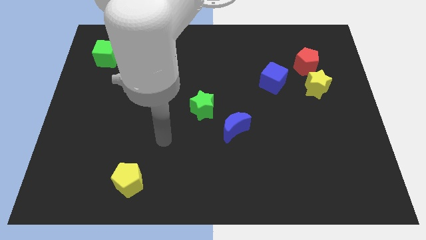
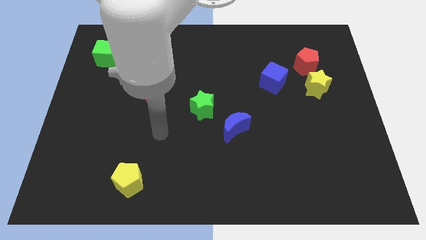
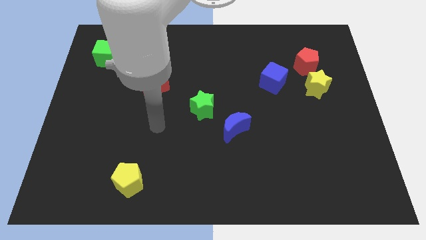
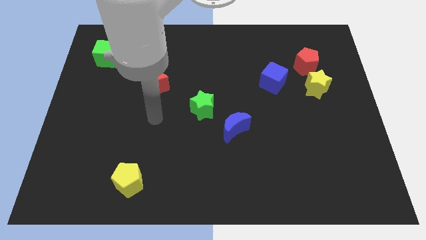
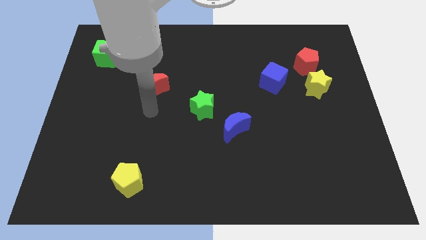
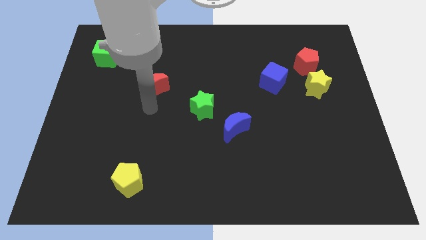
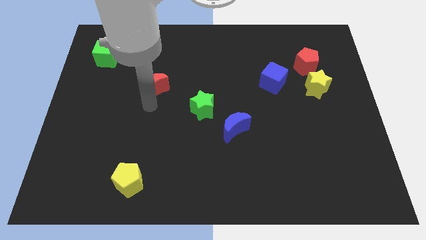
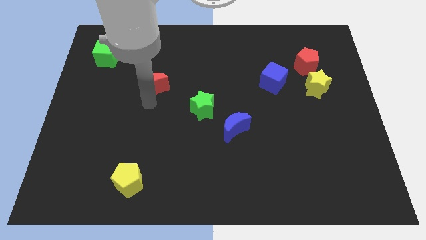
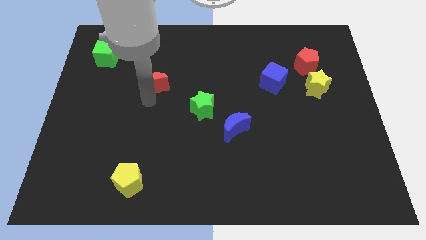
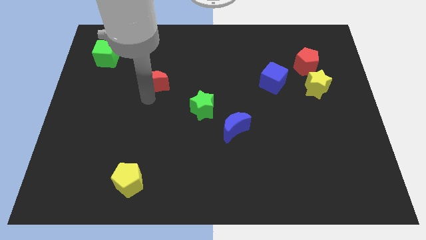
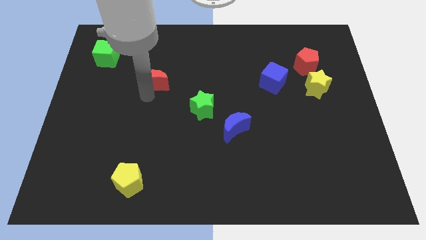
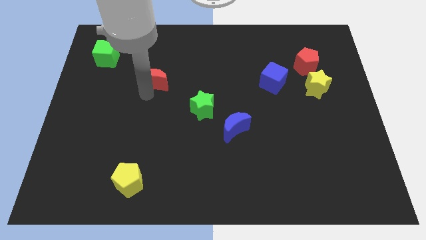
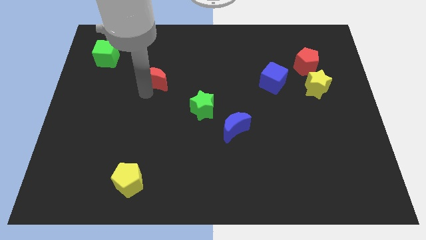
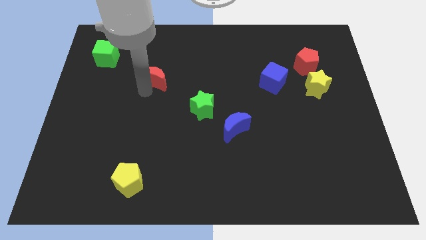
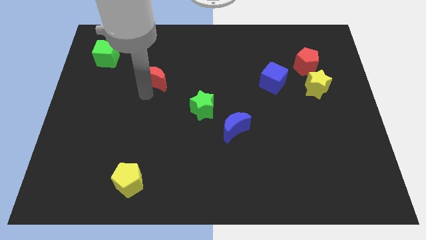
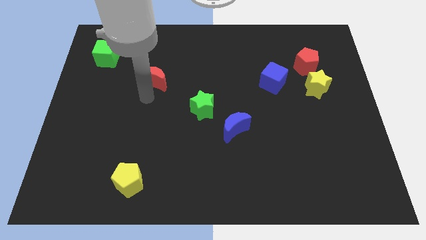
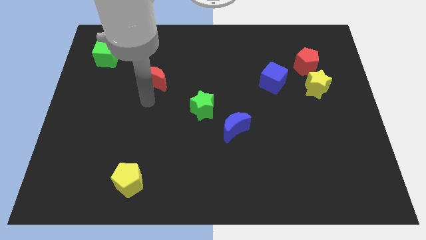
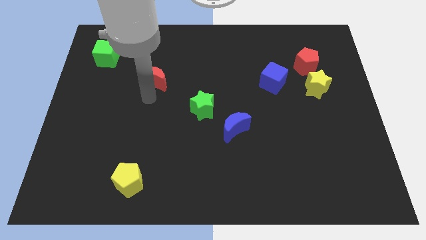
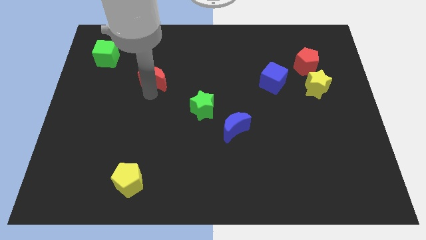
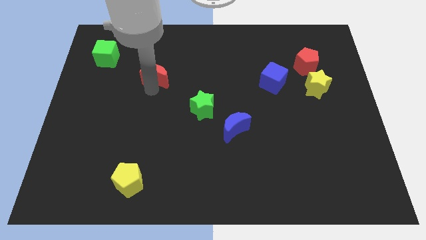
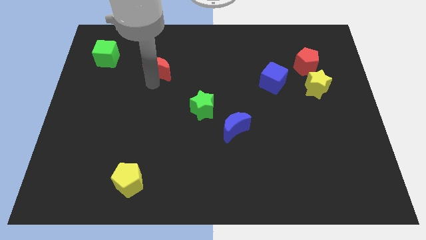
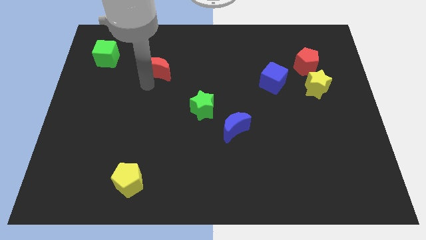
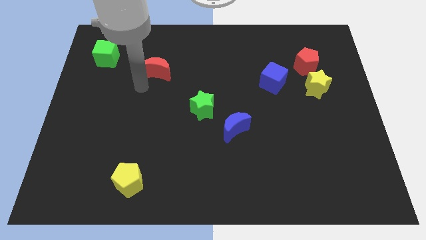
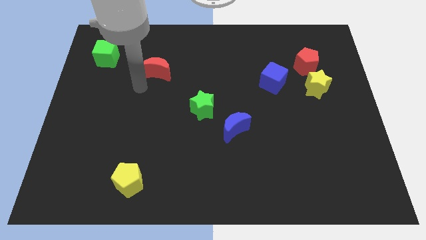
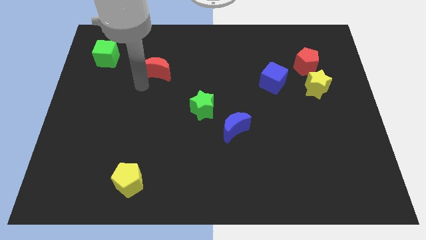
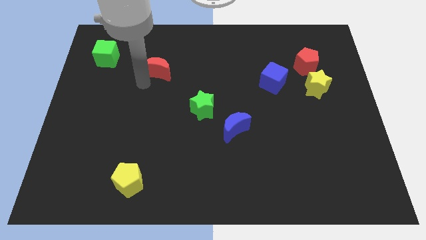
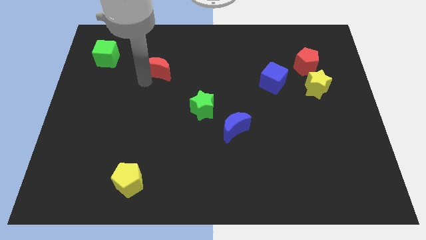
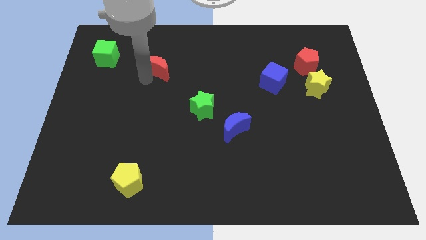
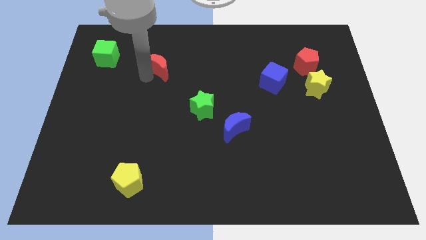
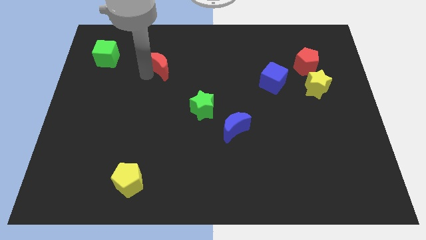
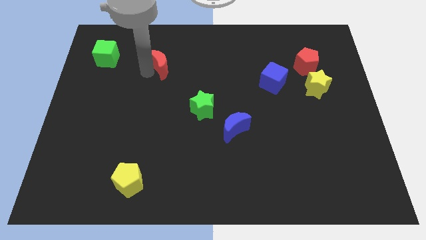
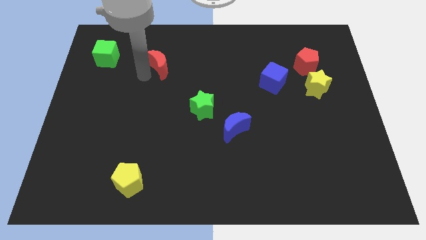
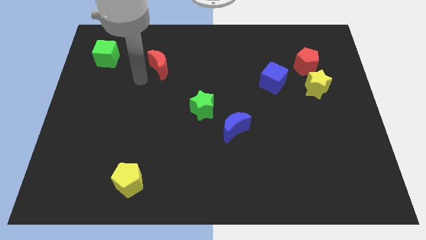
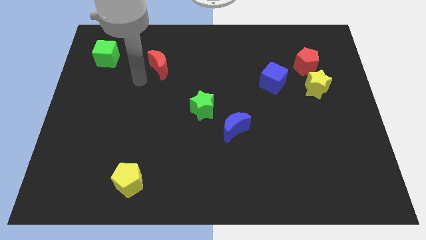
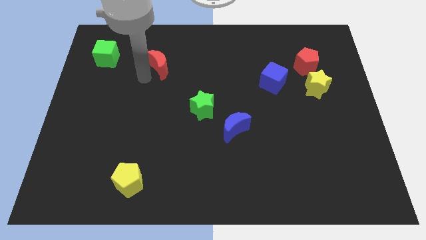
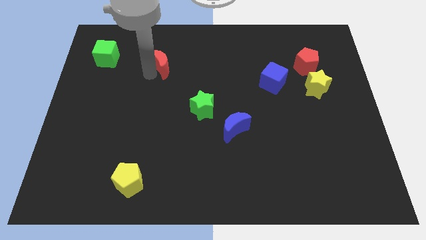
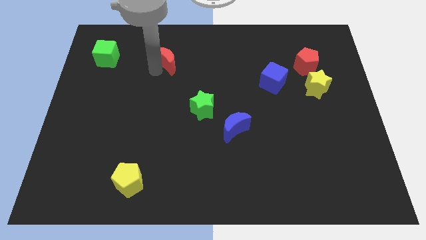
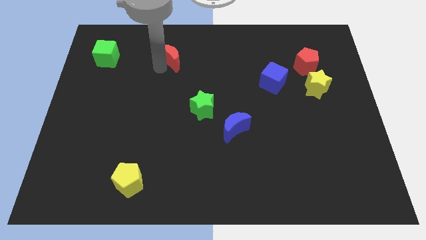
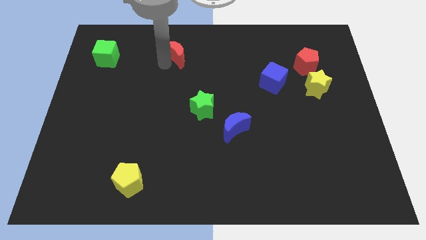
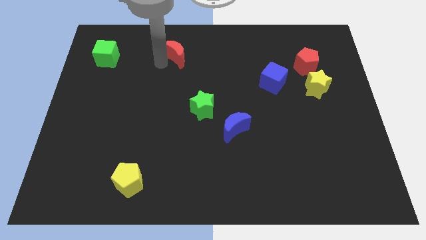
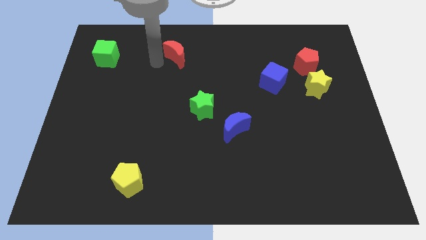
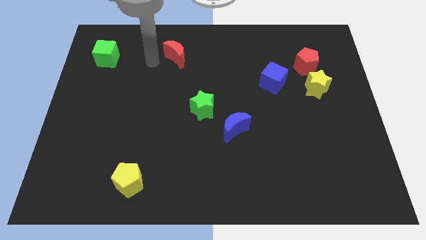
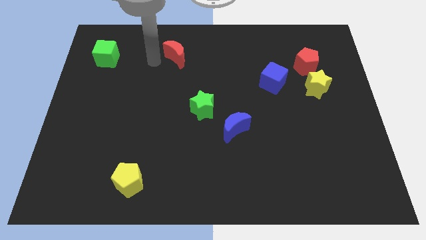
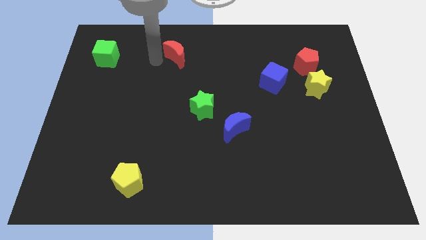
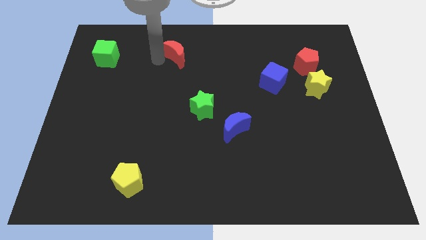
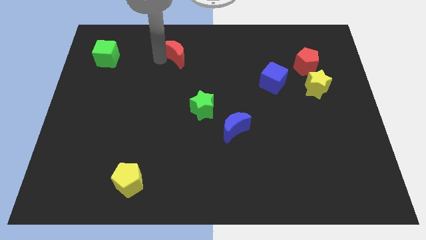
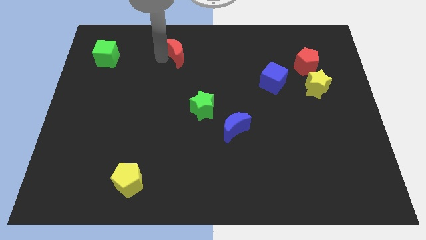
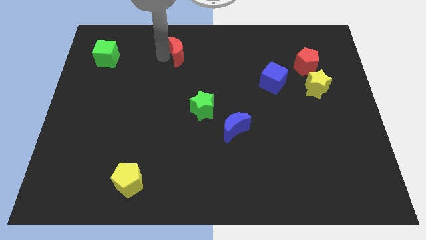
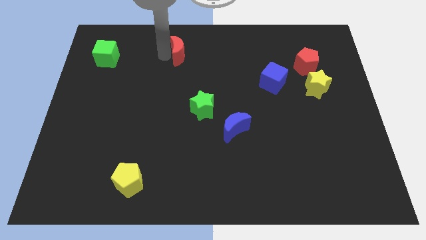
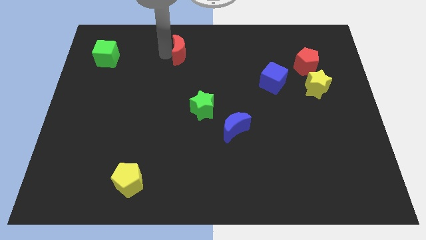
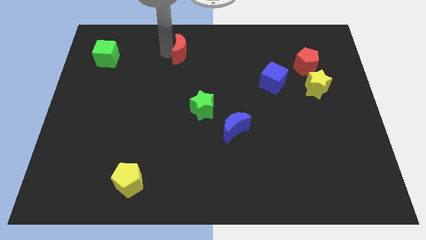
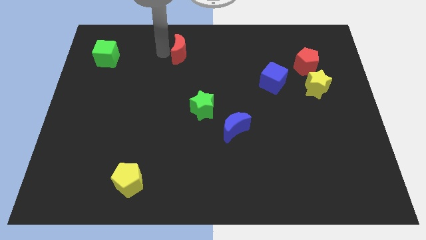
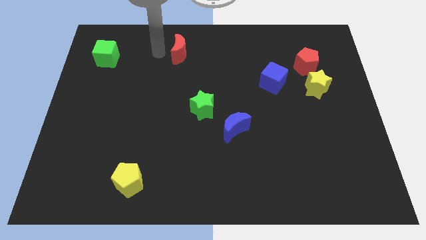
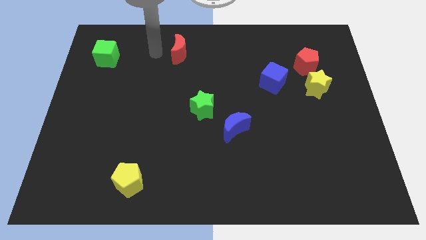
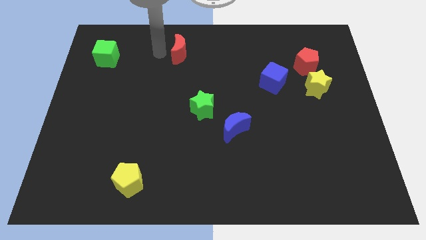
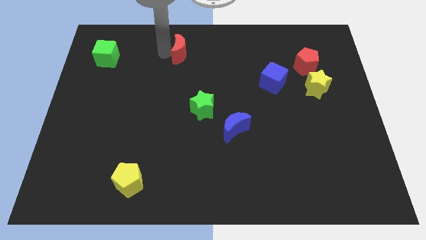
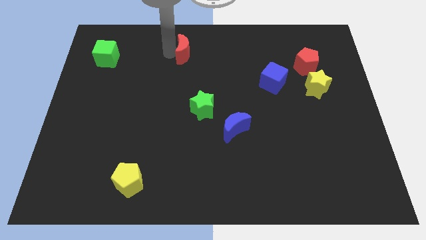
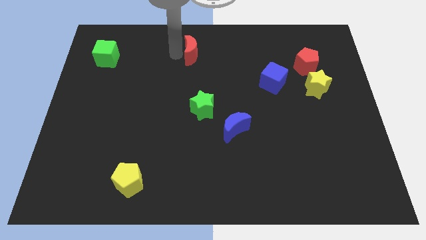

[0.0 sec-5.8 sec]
move the red moon to the towards your base

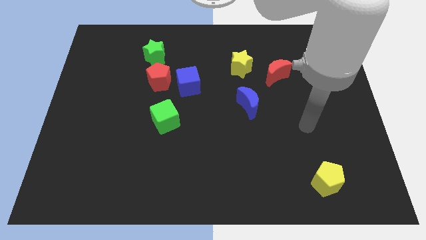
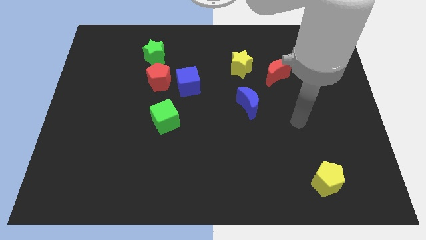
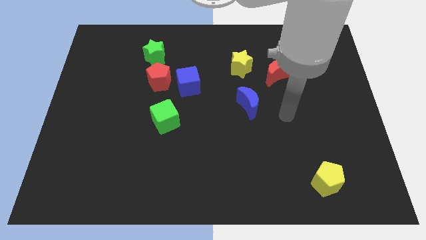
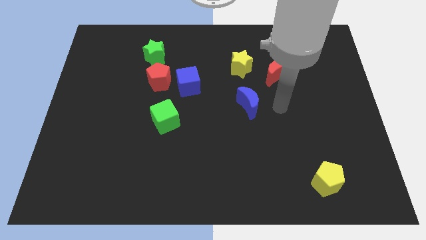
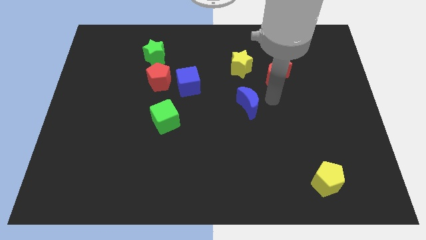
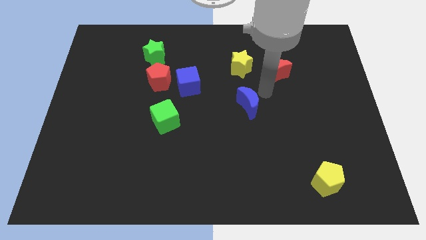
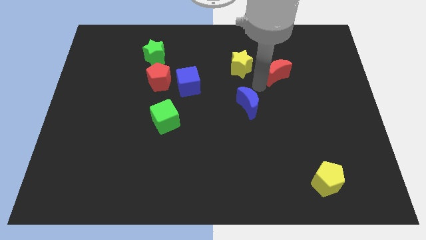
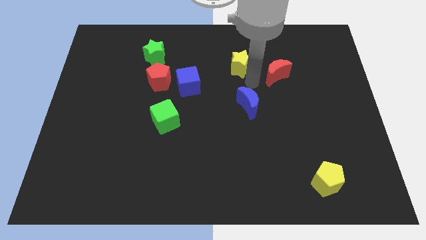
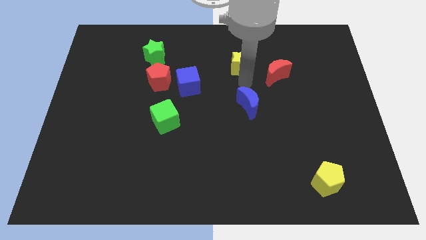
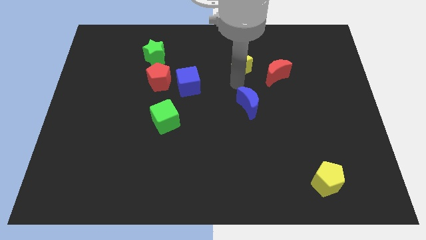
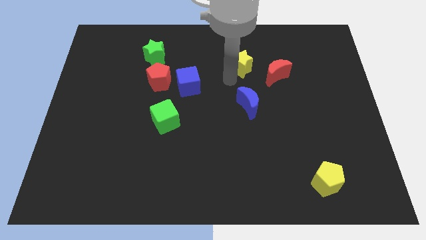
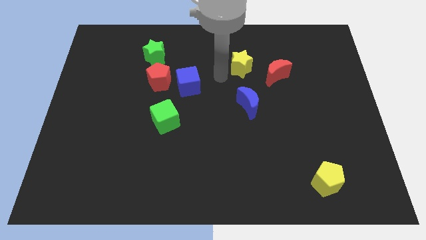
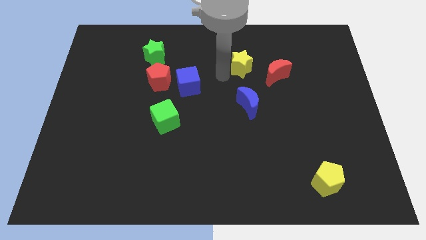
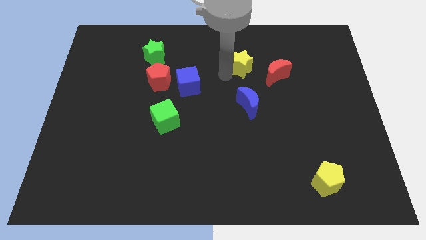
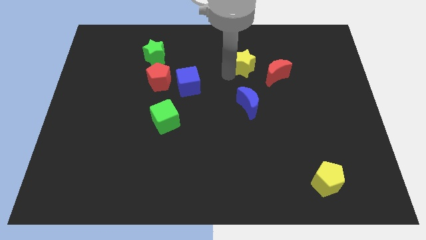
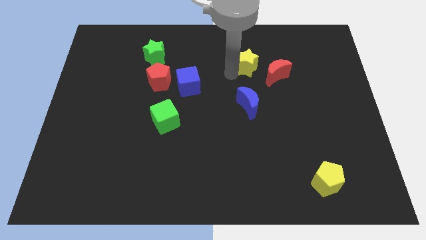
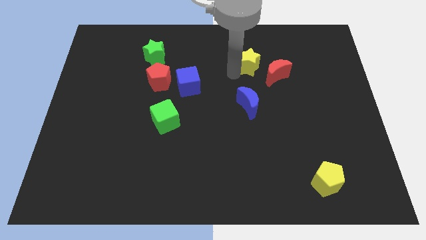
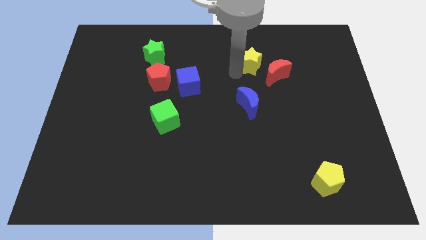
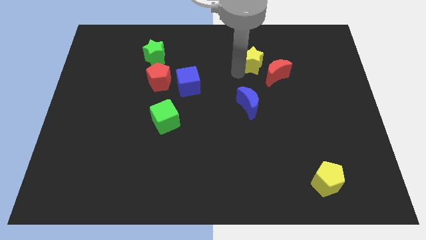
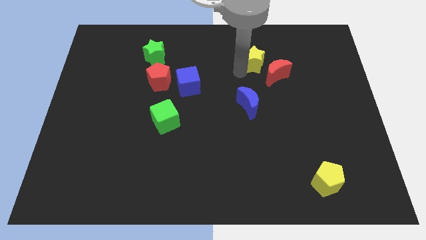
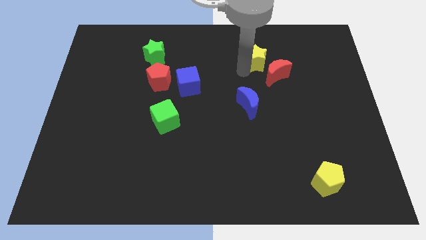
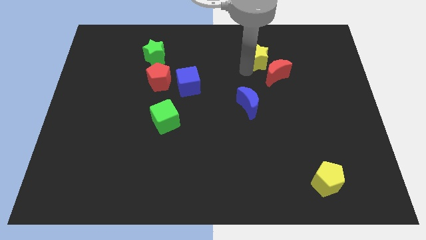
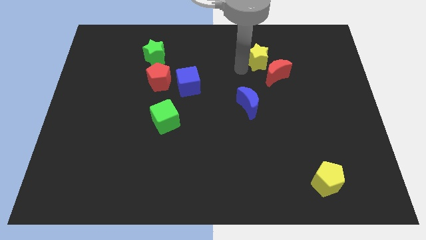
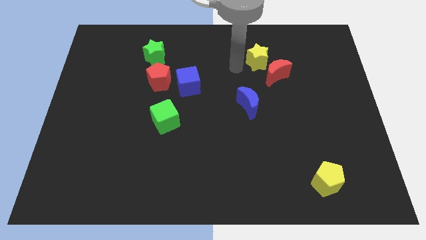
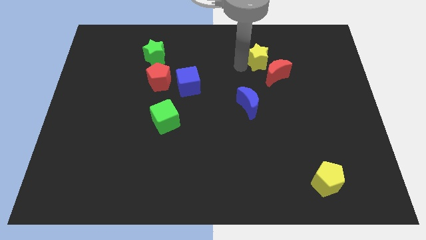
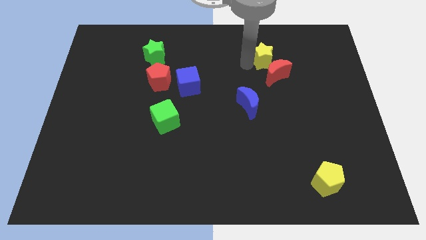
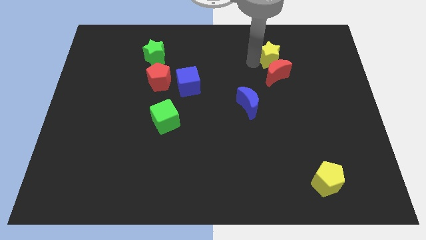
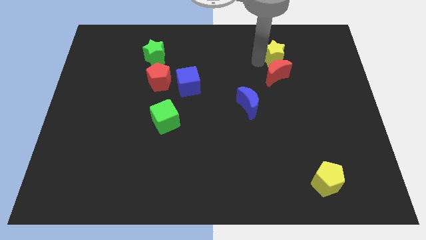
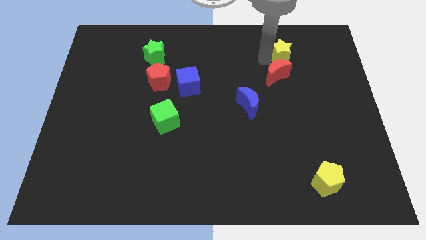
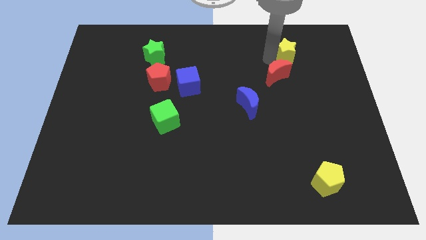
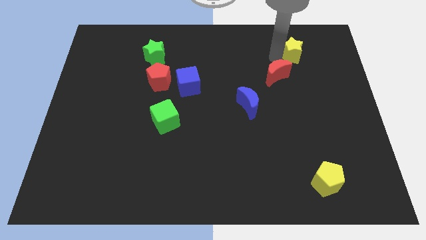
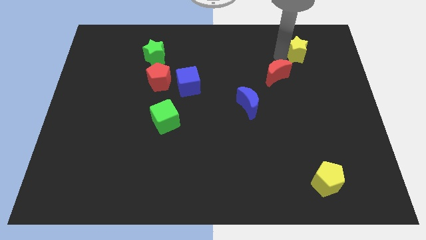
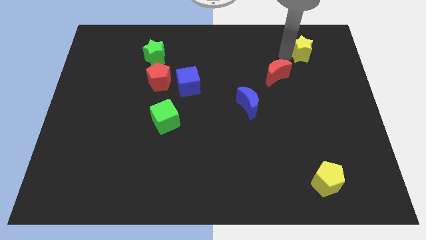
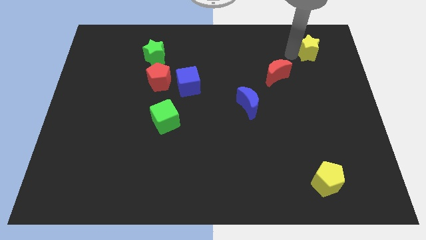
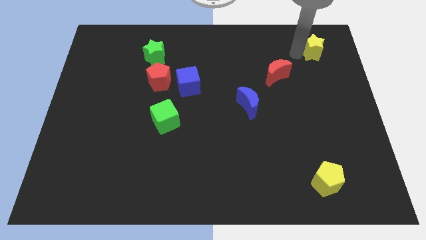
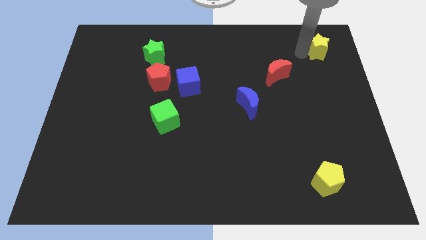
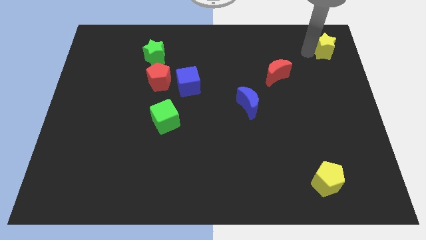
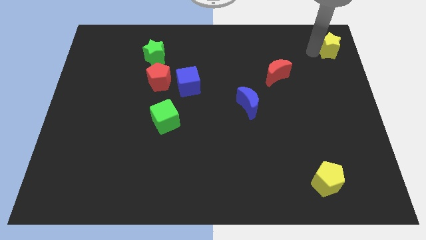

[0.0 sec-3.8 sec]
push the yellow star to the top right corner
